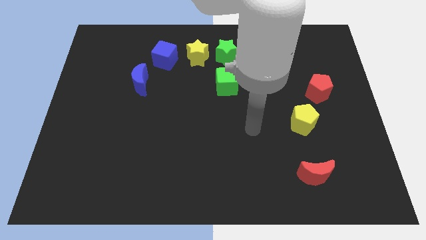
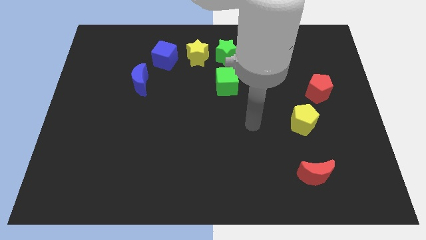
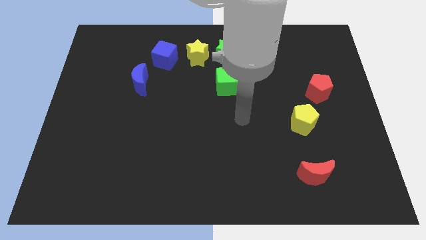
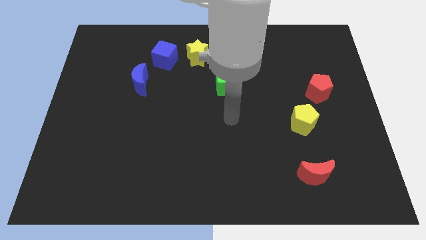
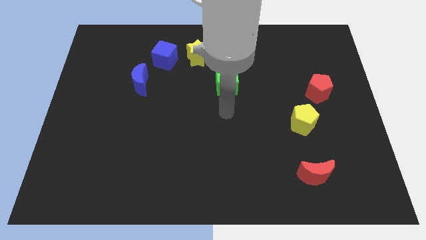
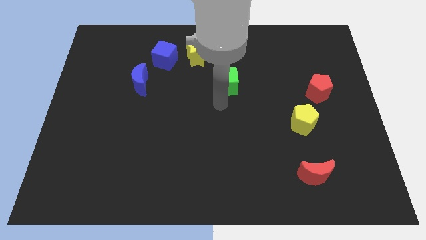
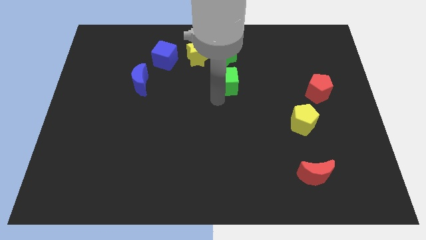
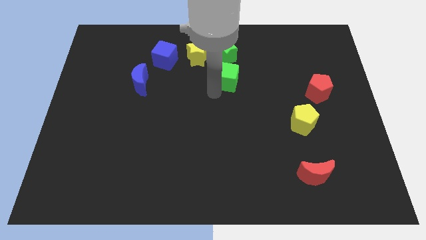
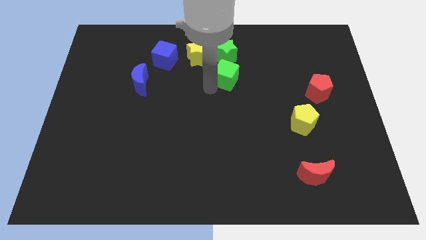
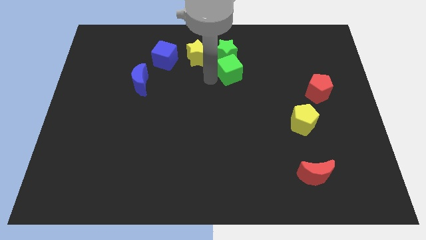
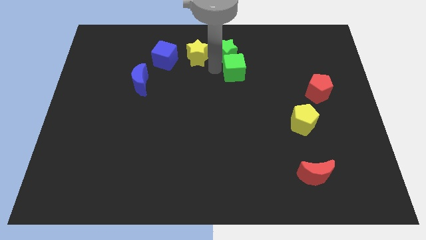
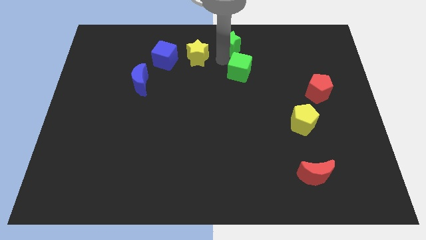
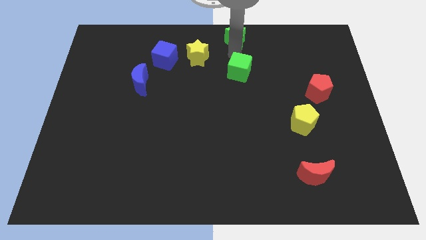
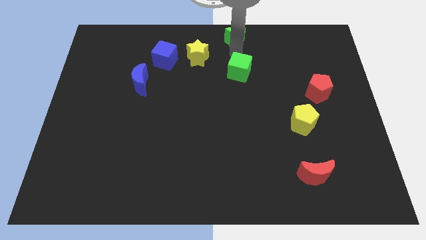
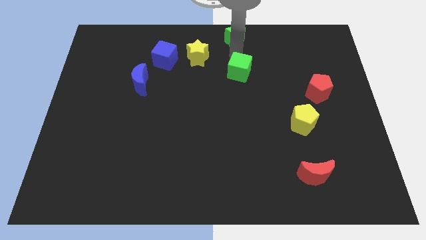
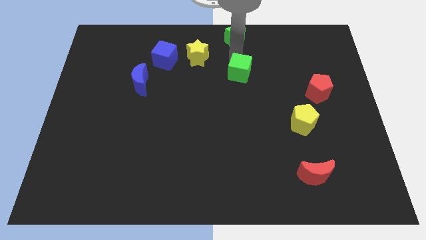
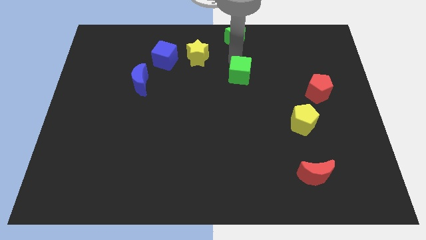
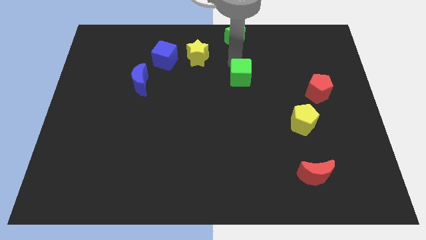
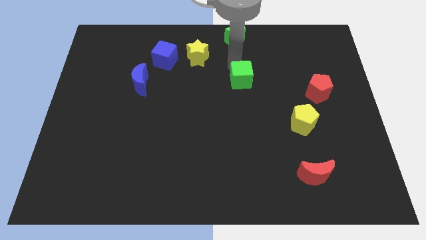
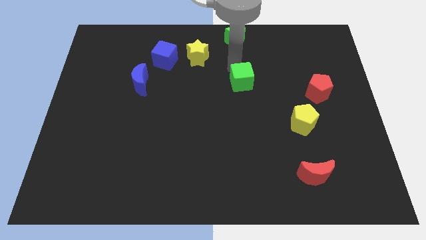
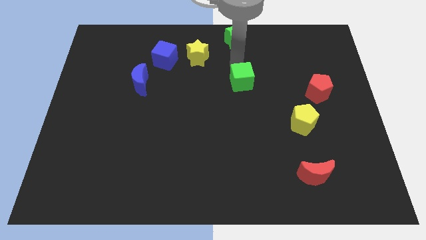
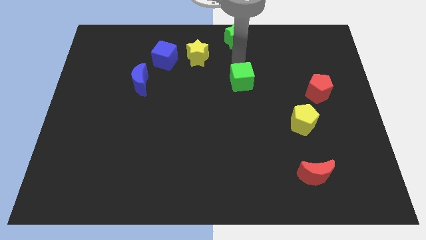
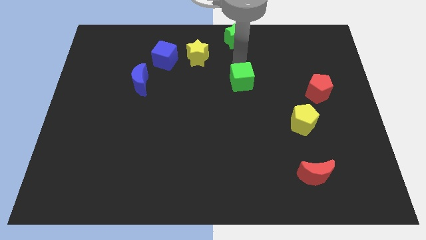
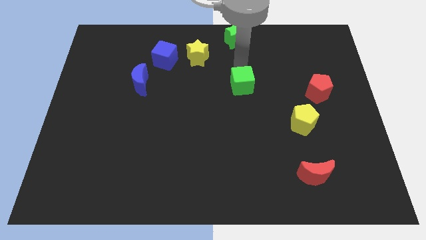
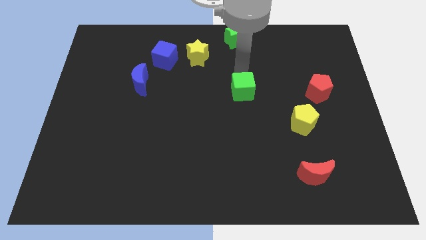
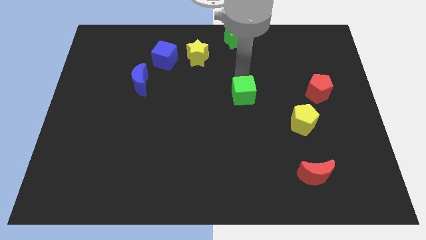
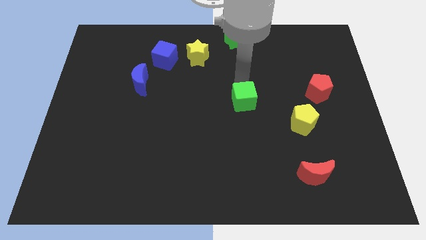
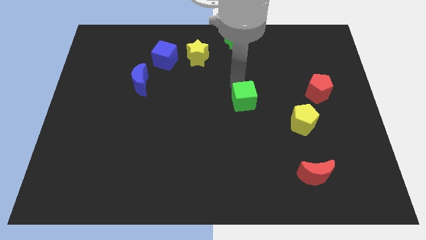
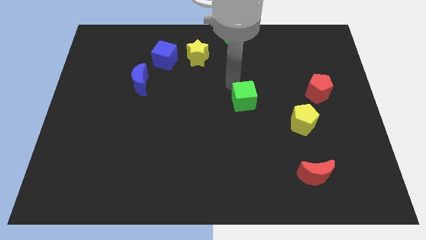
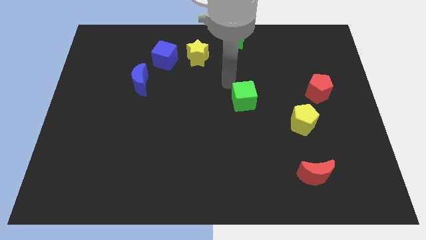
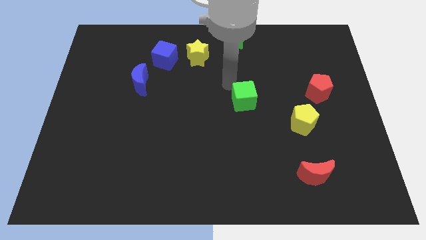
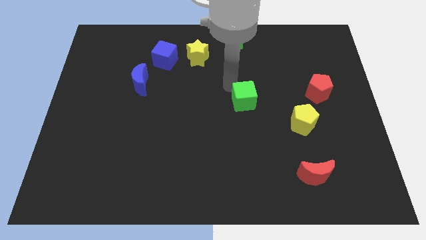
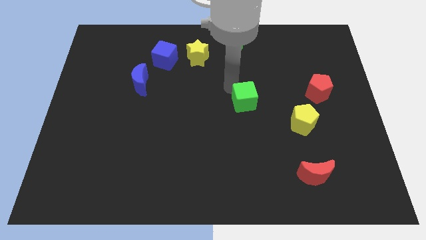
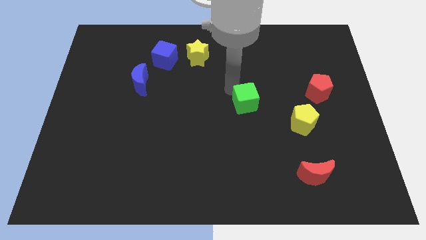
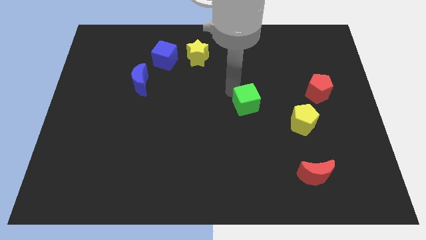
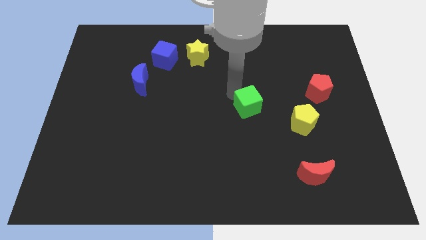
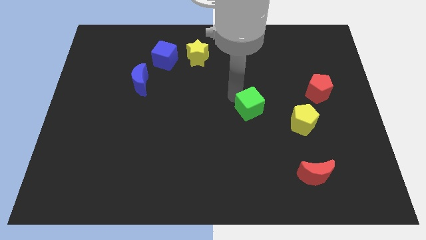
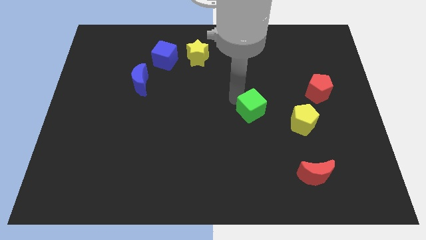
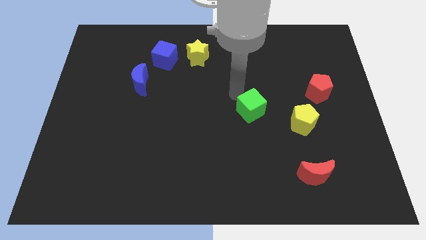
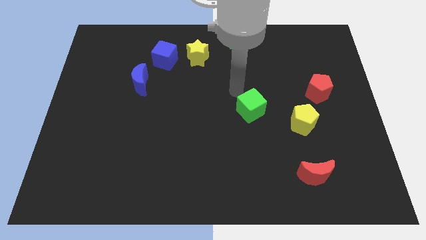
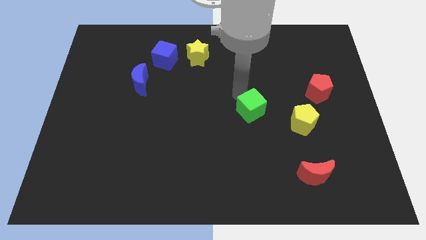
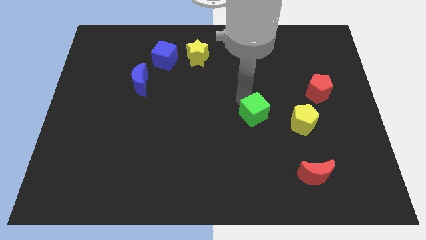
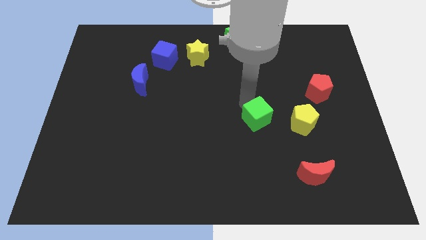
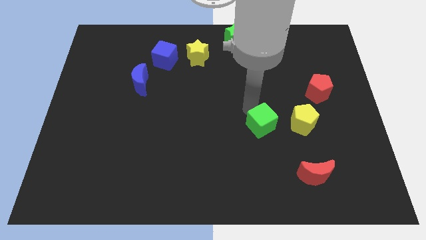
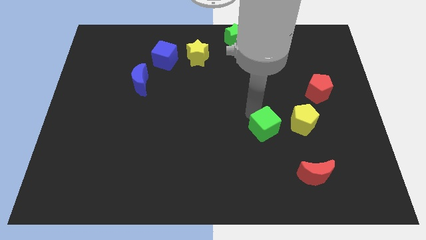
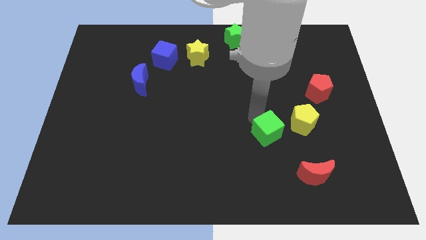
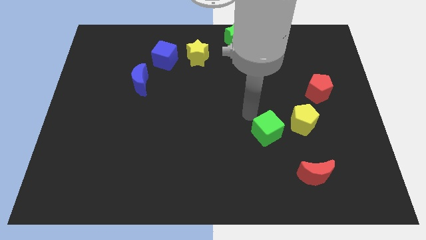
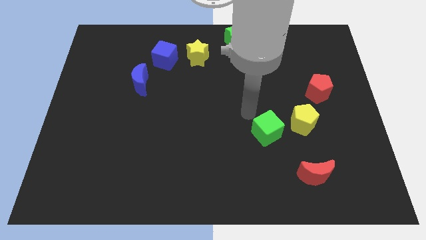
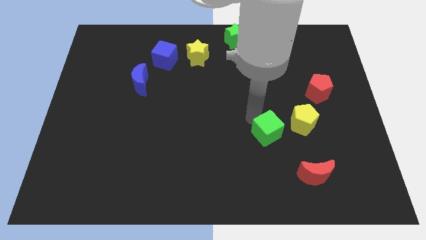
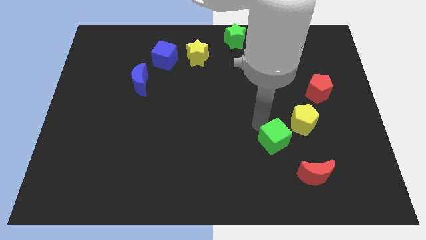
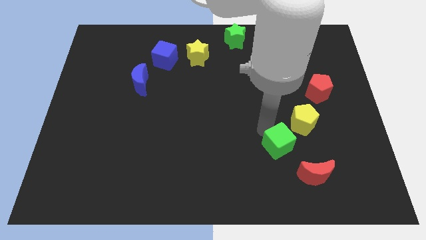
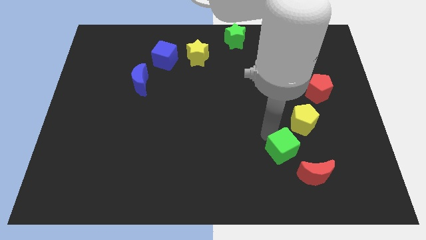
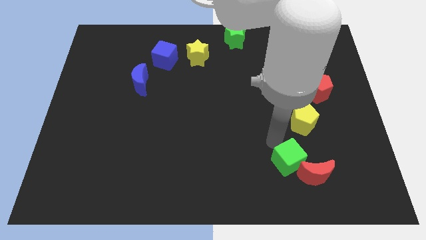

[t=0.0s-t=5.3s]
slide the green cube close to the red moon

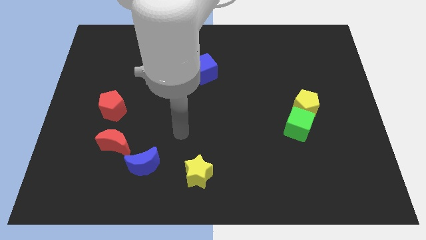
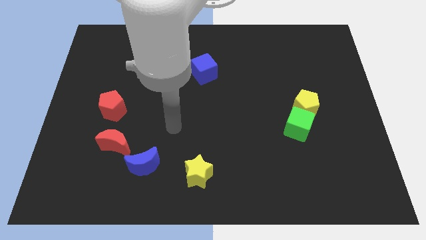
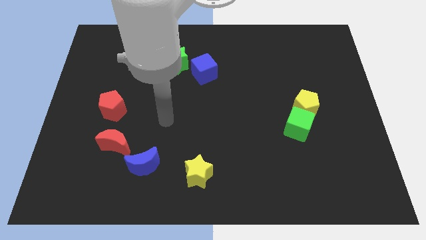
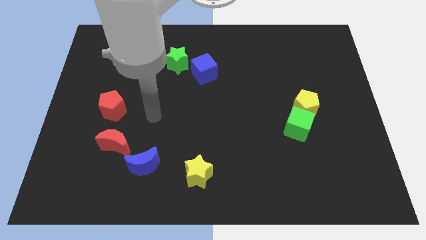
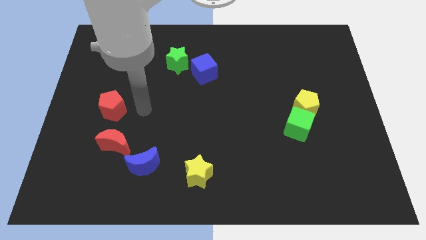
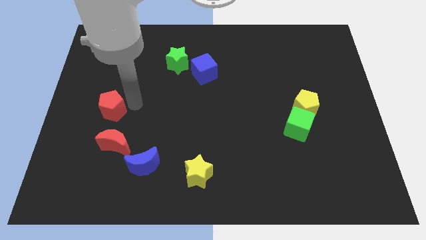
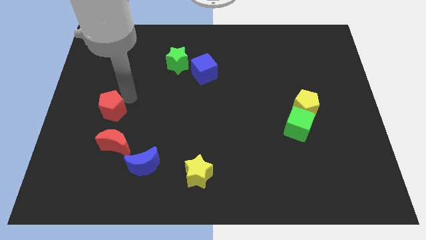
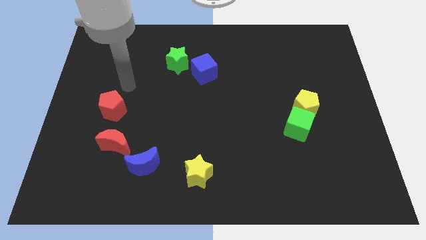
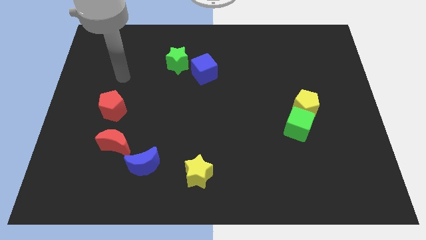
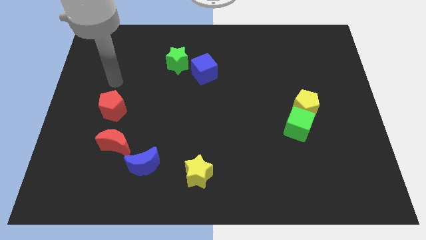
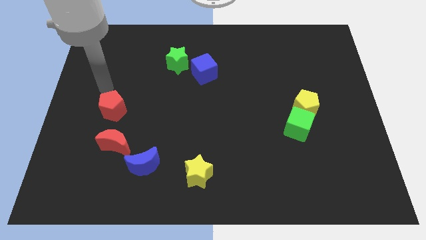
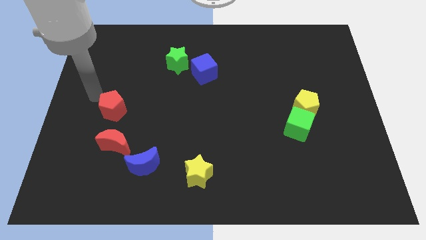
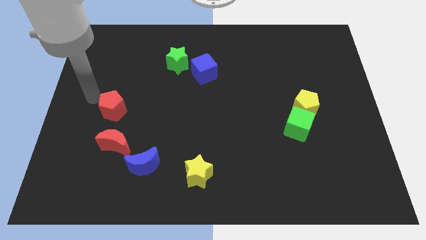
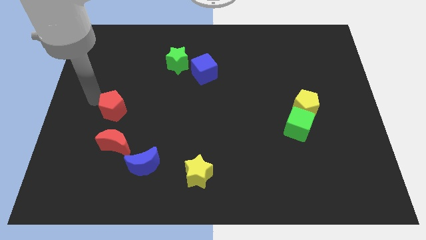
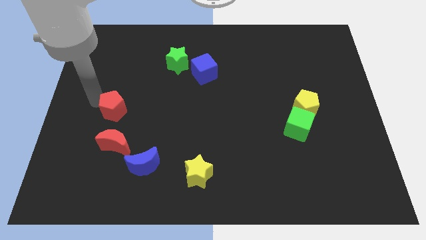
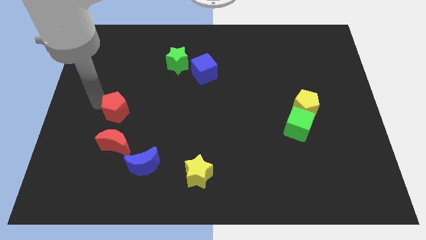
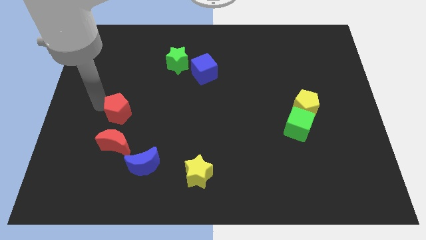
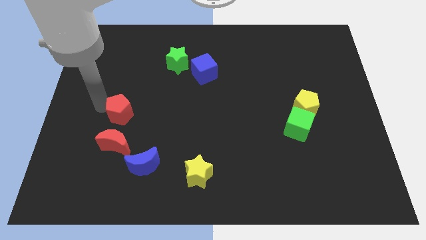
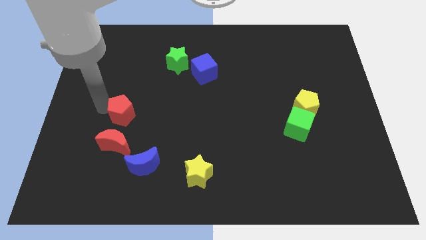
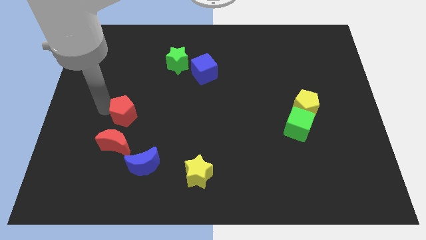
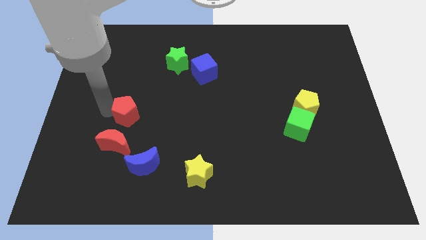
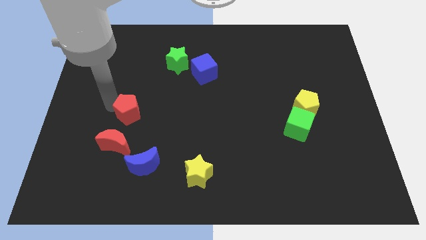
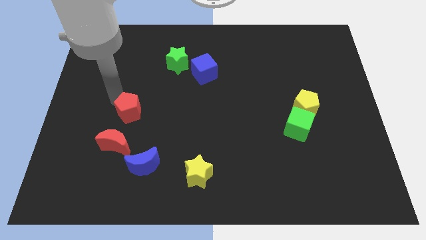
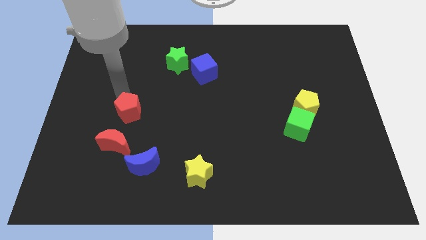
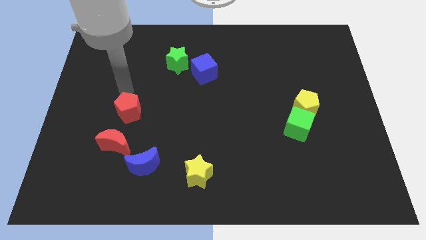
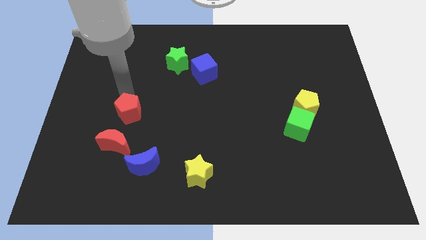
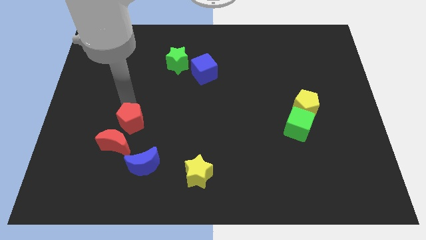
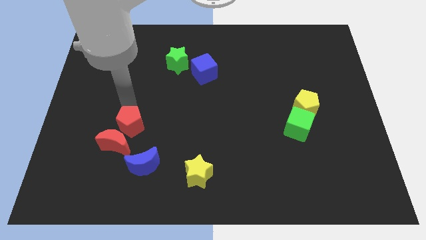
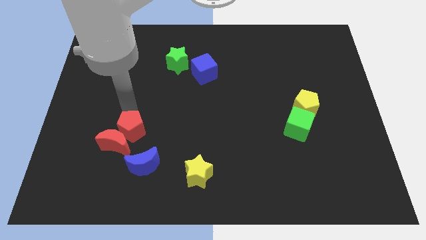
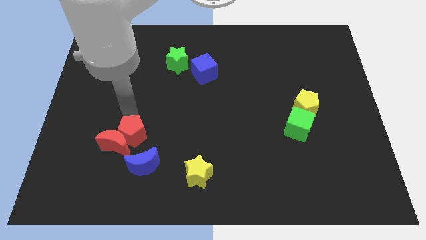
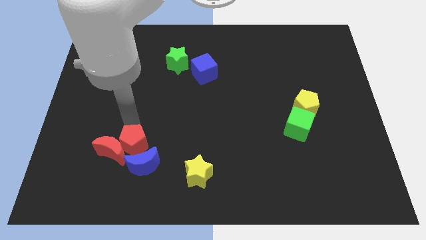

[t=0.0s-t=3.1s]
push the red pentagon close to the blue moon
